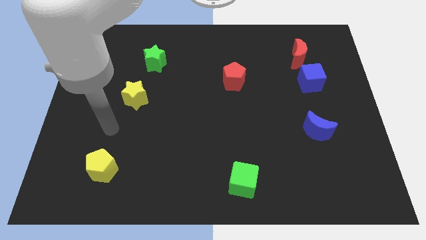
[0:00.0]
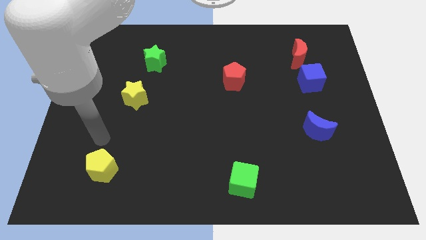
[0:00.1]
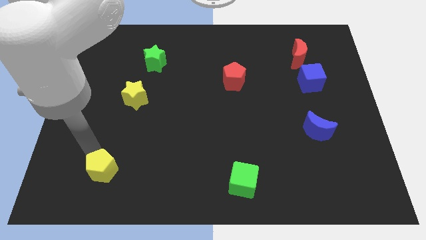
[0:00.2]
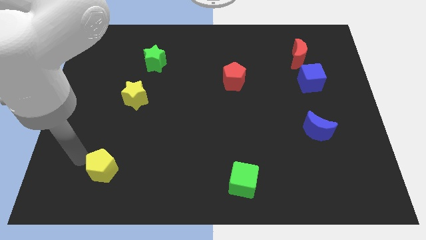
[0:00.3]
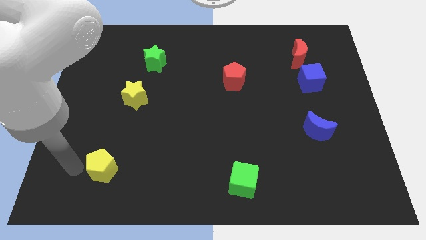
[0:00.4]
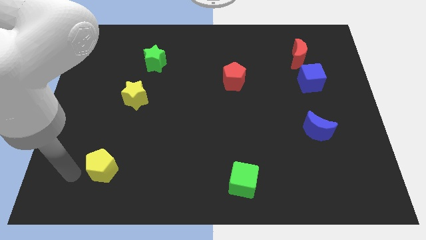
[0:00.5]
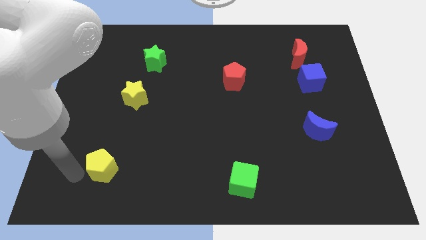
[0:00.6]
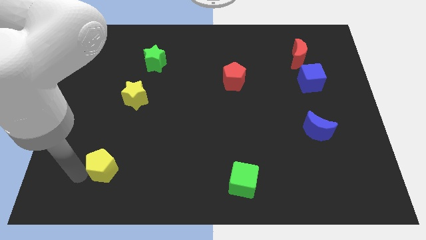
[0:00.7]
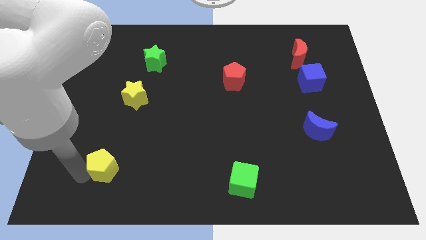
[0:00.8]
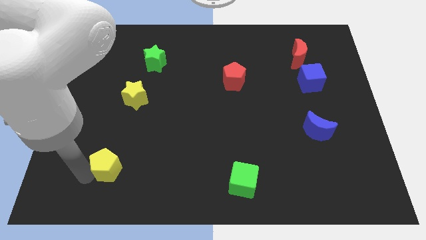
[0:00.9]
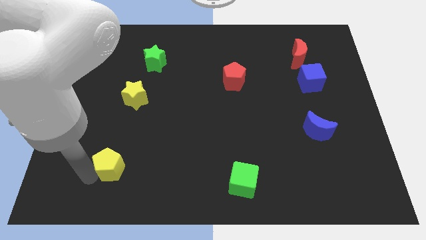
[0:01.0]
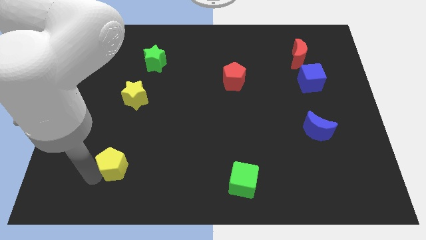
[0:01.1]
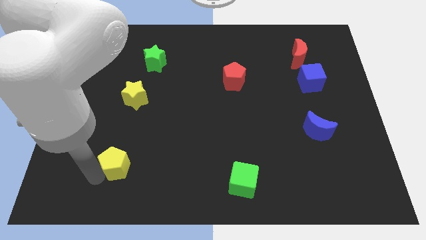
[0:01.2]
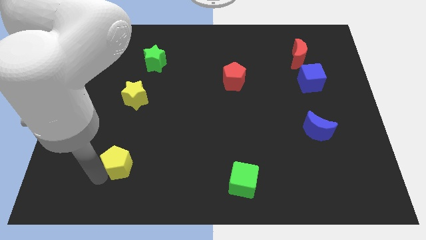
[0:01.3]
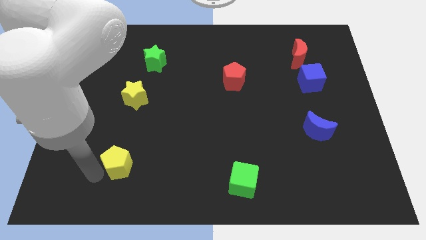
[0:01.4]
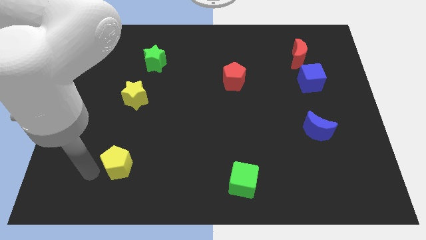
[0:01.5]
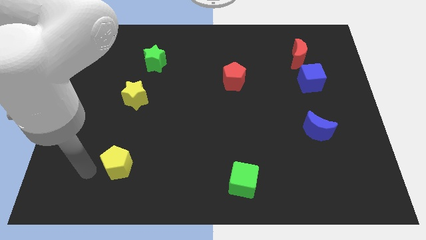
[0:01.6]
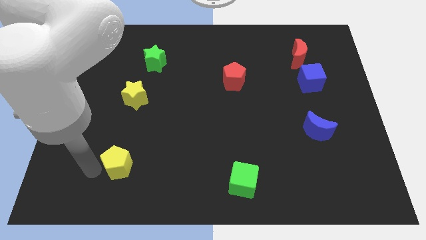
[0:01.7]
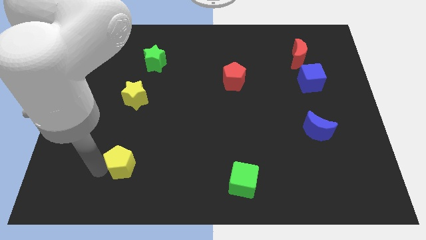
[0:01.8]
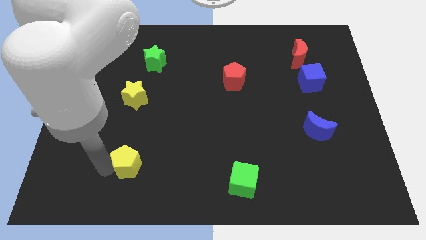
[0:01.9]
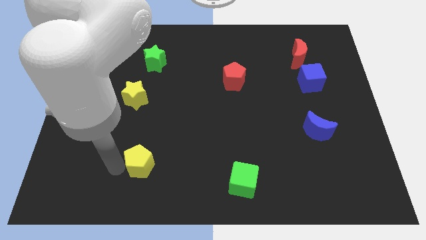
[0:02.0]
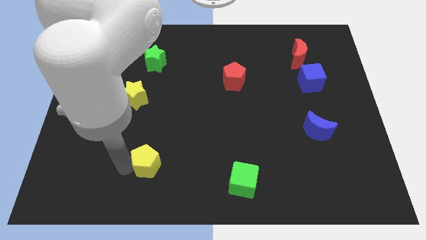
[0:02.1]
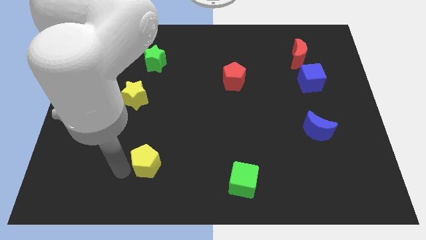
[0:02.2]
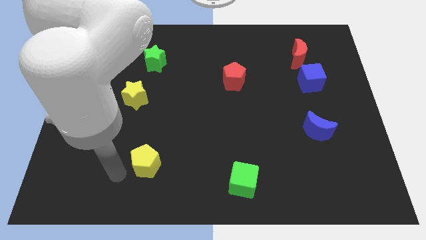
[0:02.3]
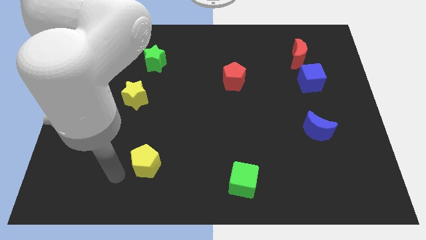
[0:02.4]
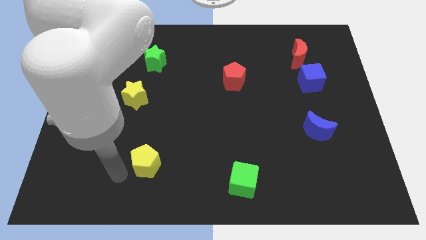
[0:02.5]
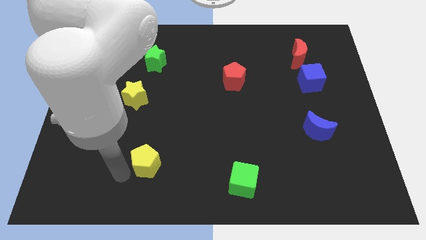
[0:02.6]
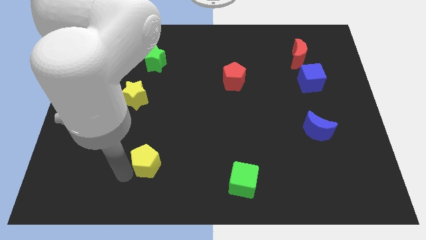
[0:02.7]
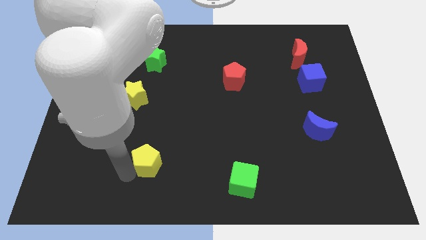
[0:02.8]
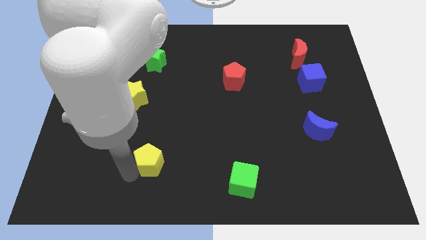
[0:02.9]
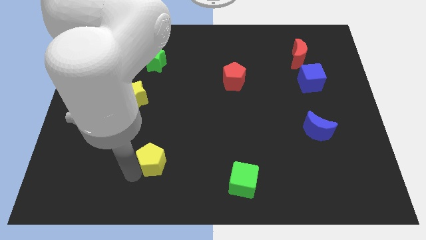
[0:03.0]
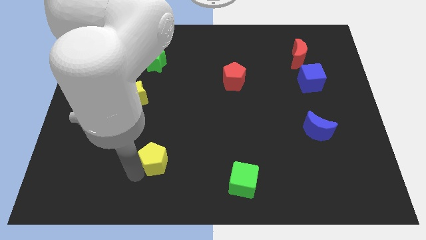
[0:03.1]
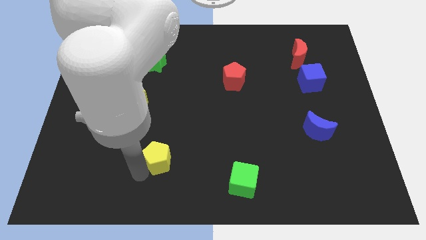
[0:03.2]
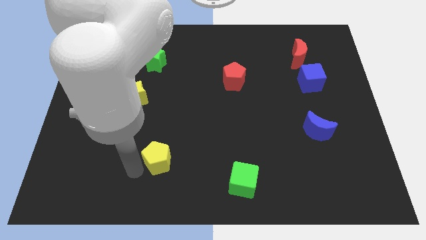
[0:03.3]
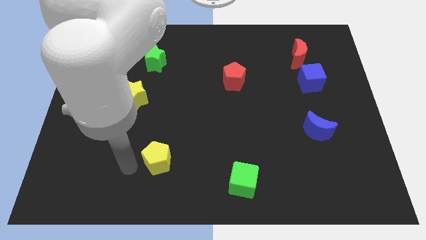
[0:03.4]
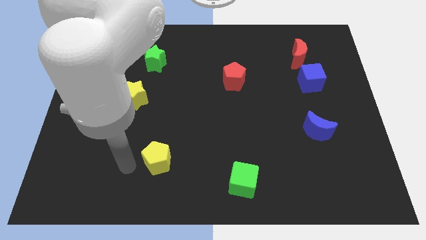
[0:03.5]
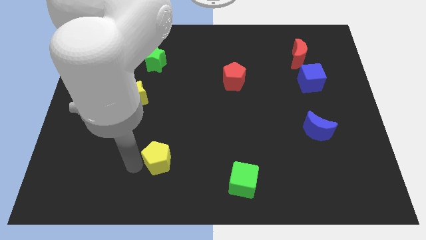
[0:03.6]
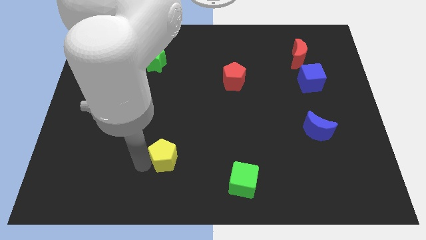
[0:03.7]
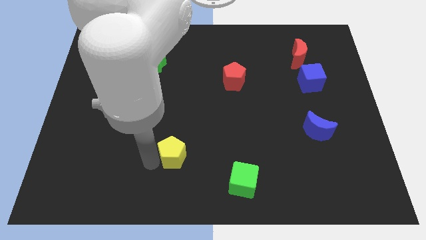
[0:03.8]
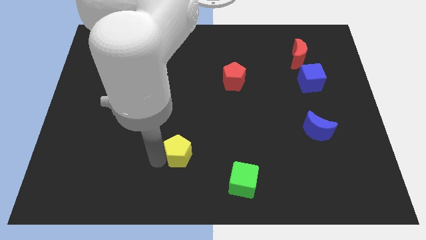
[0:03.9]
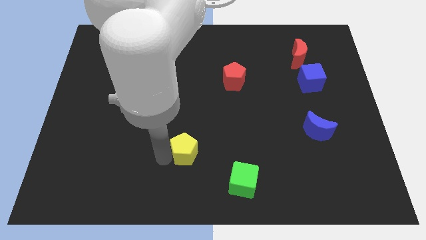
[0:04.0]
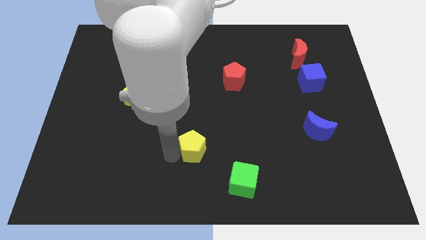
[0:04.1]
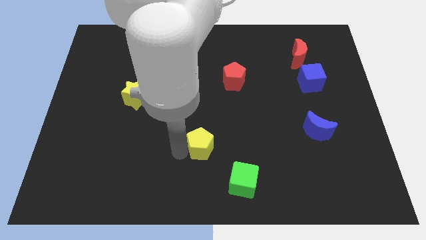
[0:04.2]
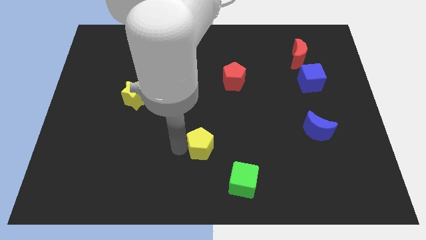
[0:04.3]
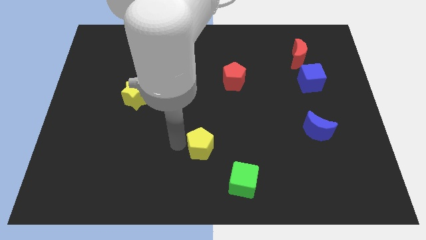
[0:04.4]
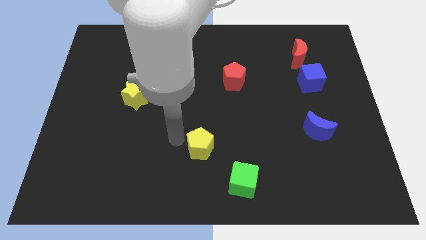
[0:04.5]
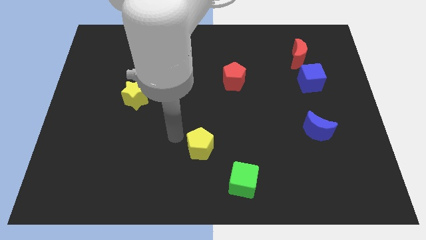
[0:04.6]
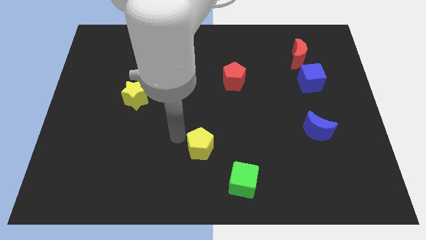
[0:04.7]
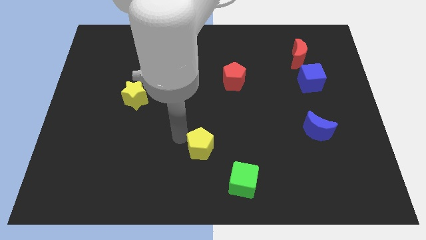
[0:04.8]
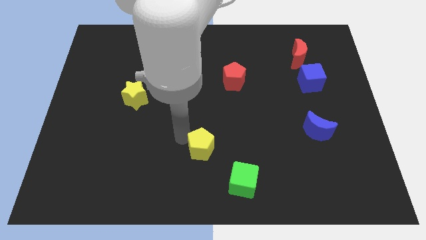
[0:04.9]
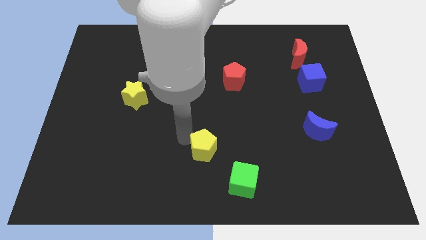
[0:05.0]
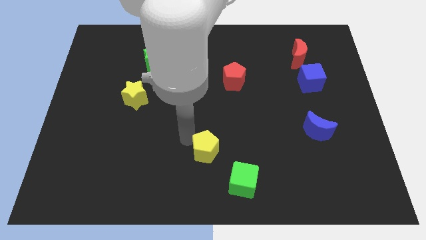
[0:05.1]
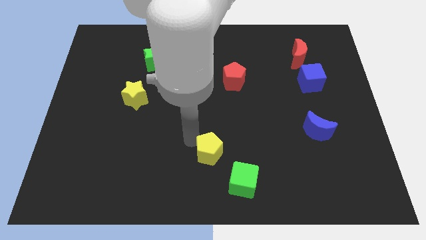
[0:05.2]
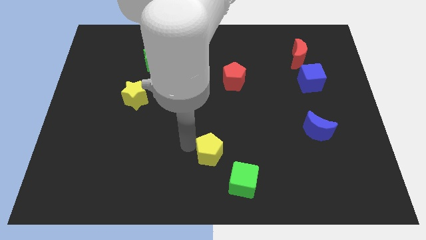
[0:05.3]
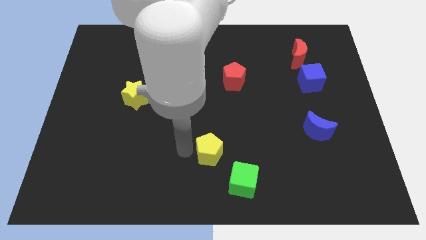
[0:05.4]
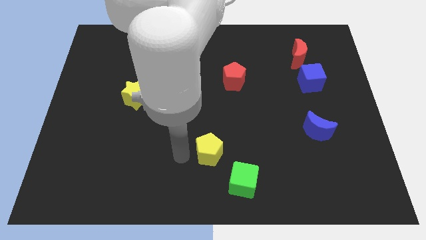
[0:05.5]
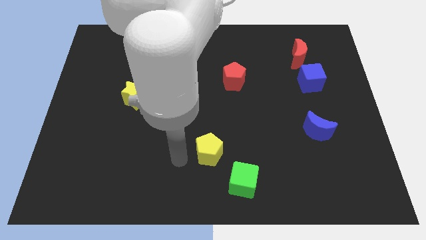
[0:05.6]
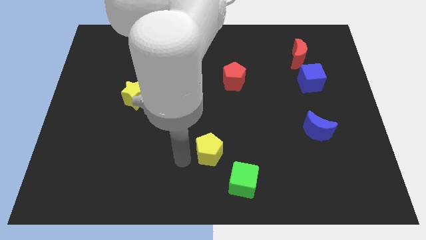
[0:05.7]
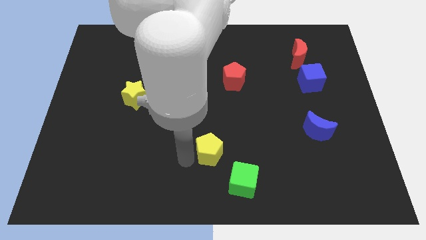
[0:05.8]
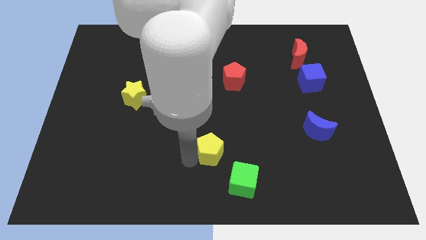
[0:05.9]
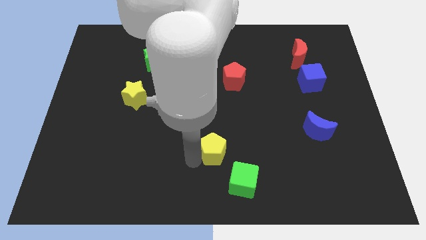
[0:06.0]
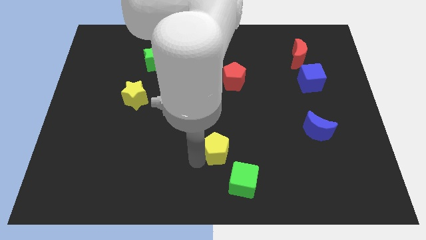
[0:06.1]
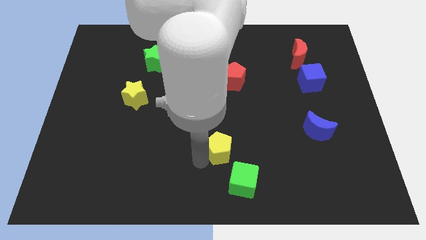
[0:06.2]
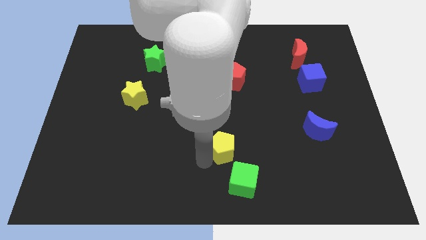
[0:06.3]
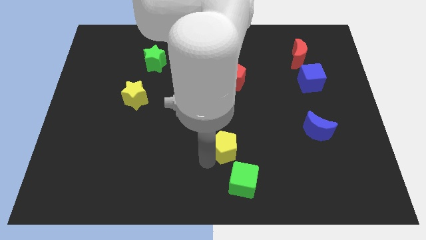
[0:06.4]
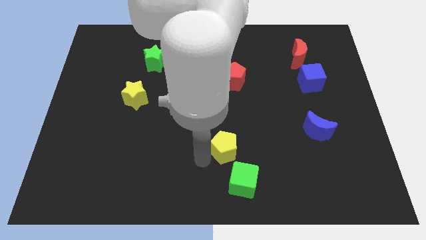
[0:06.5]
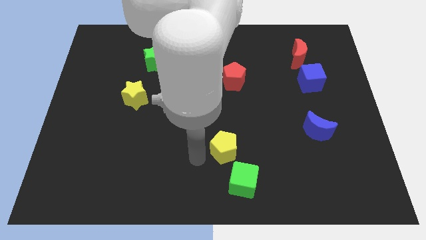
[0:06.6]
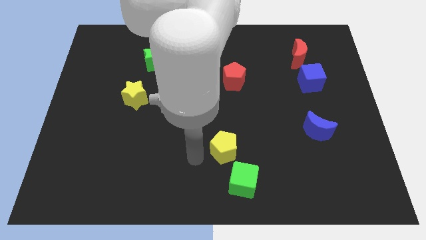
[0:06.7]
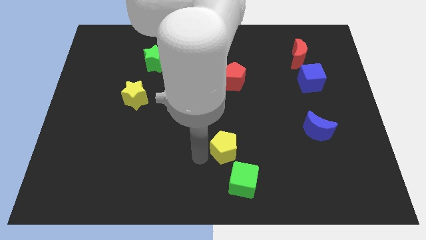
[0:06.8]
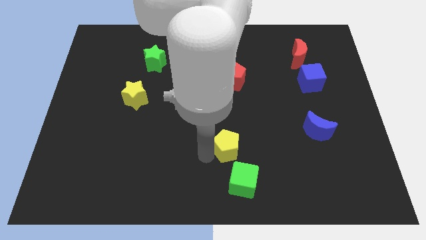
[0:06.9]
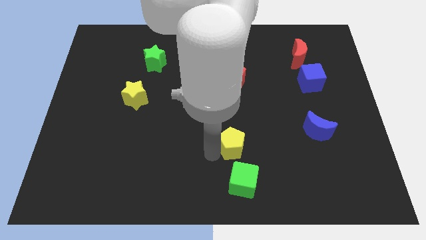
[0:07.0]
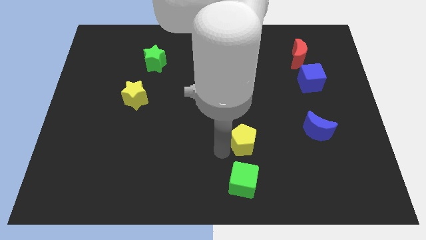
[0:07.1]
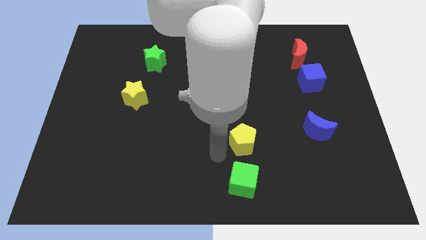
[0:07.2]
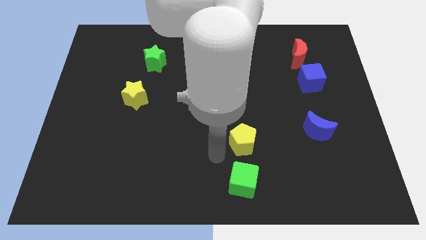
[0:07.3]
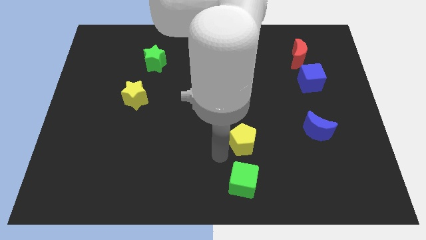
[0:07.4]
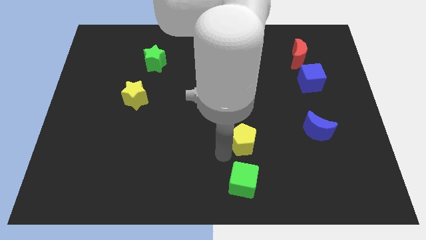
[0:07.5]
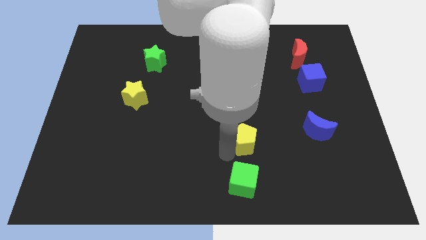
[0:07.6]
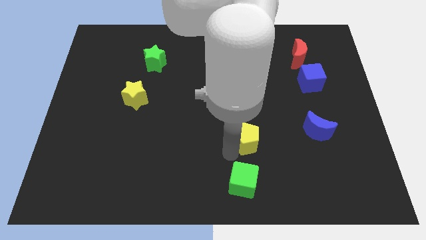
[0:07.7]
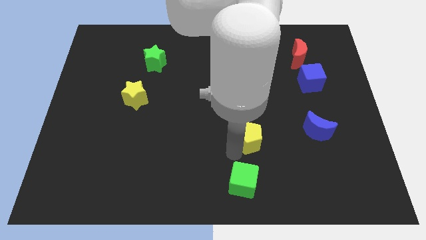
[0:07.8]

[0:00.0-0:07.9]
push the yellow pentagon just left of the blue moon
